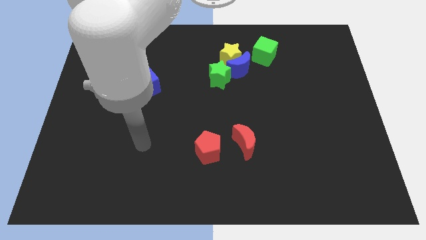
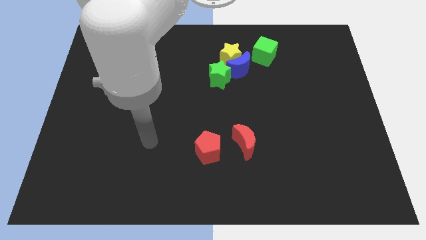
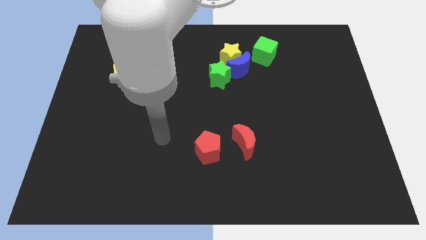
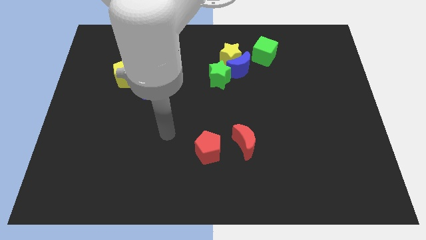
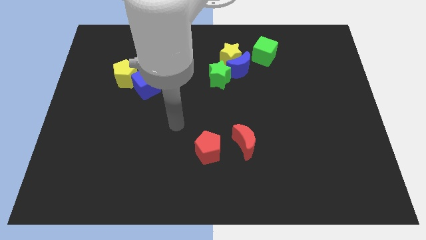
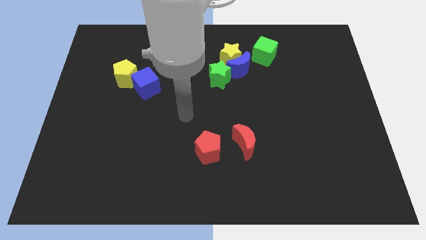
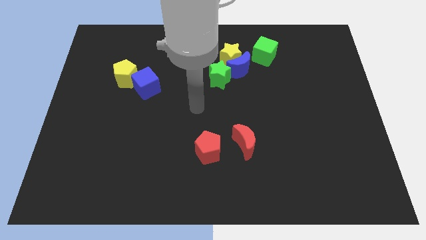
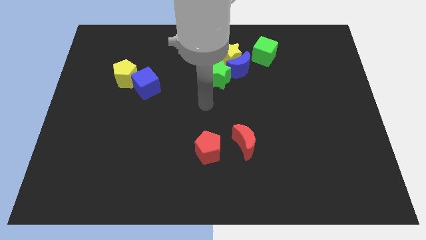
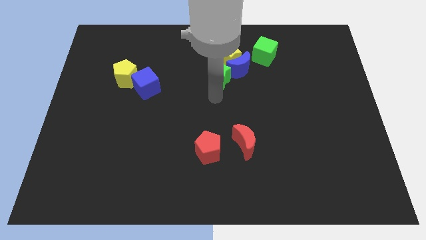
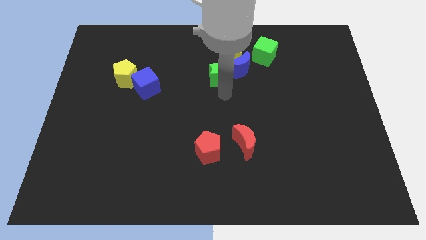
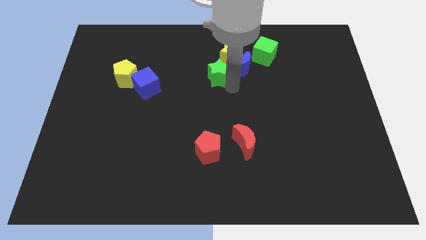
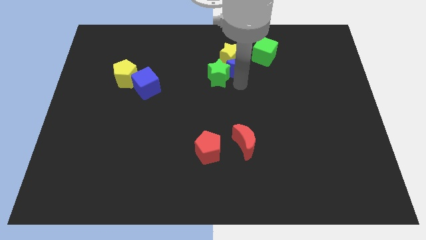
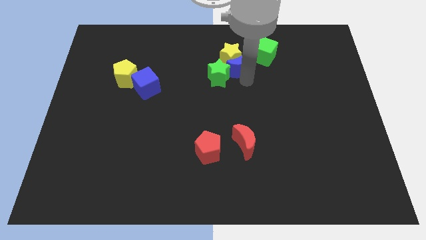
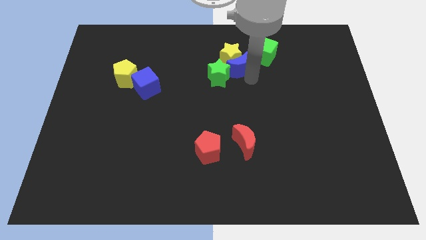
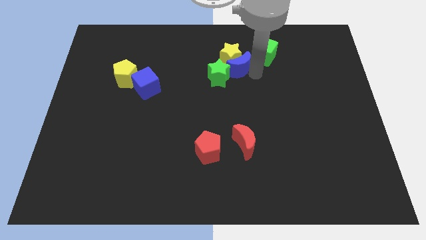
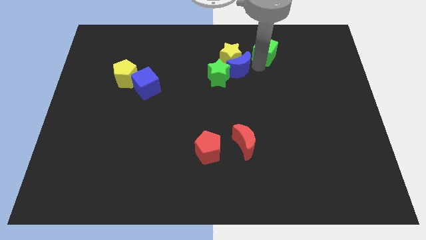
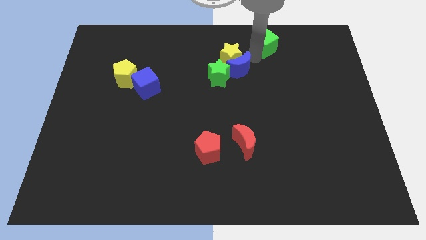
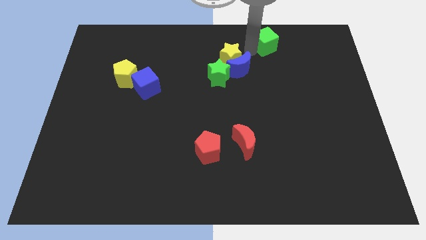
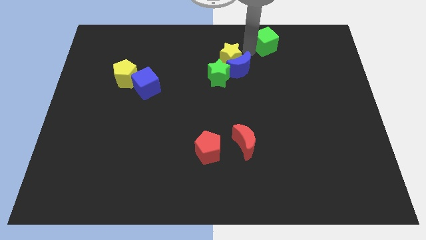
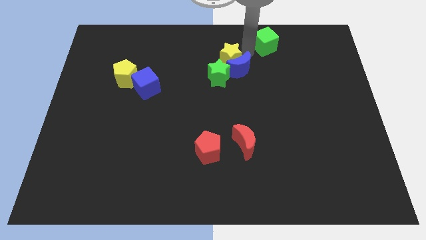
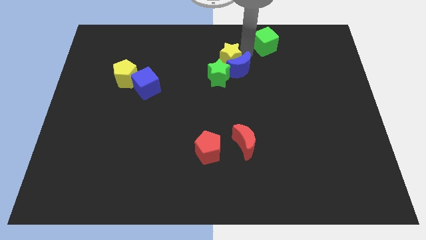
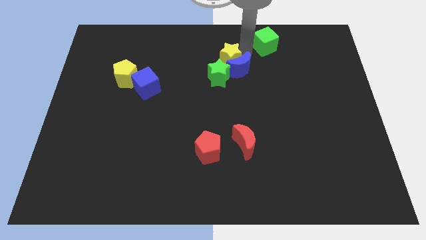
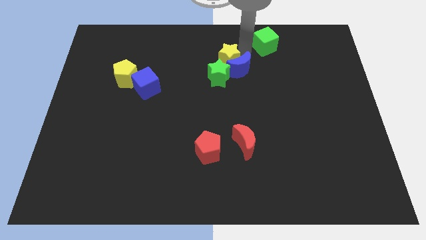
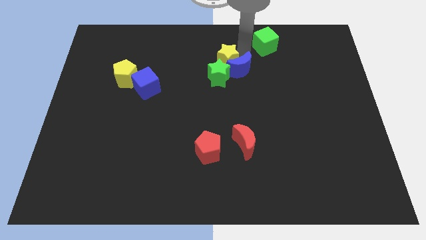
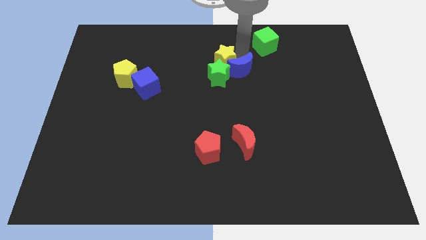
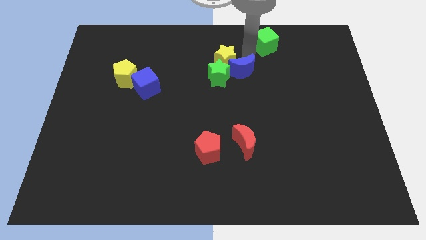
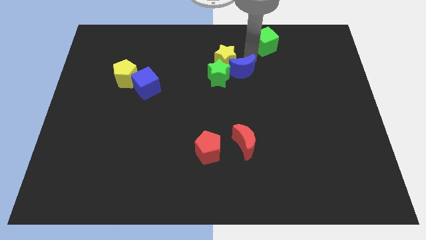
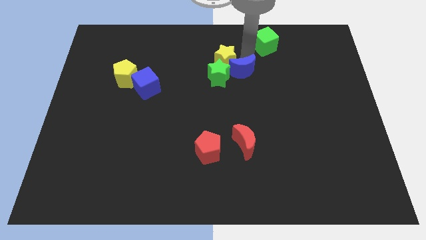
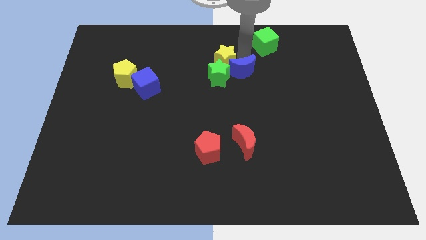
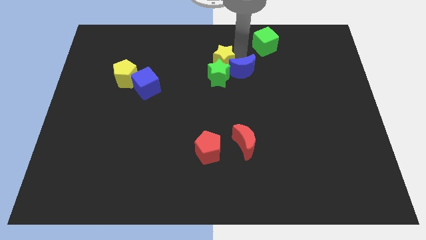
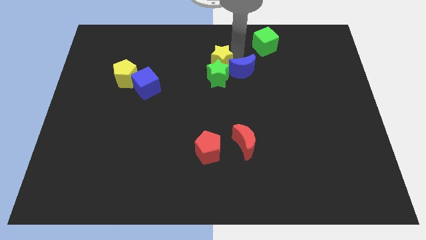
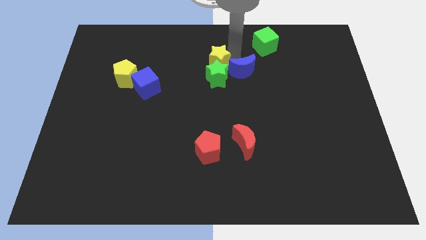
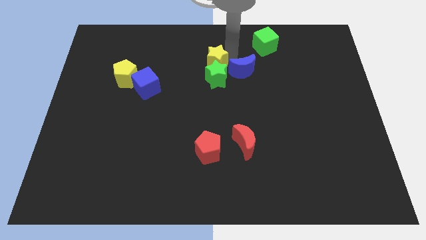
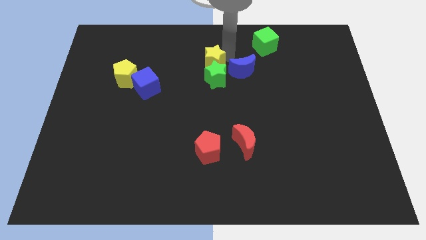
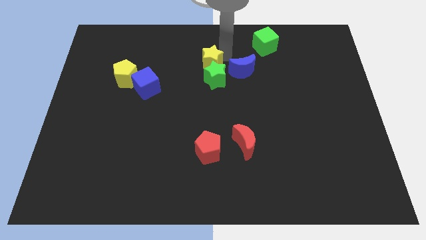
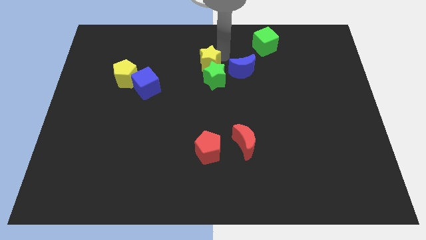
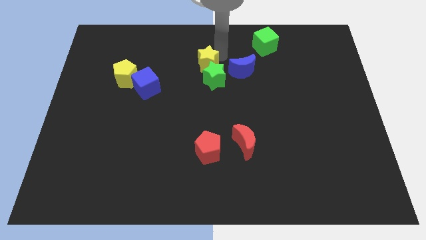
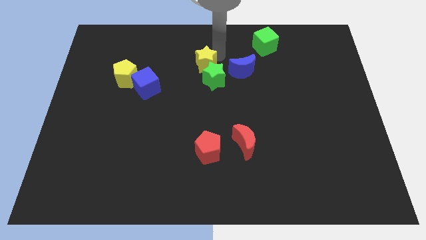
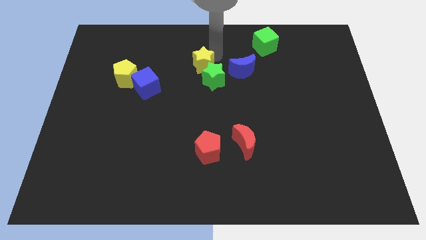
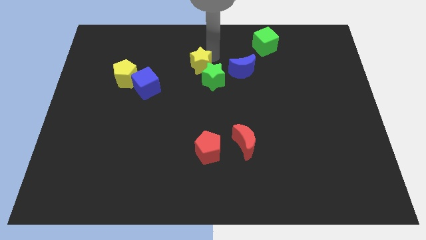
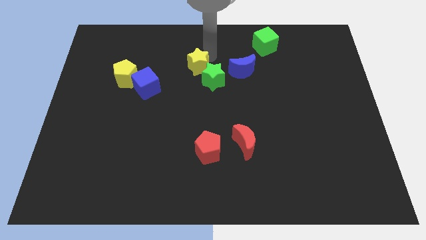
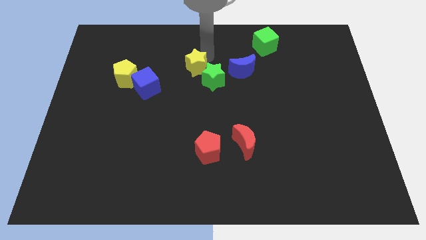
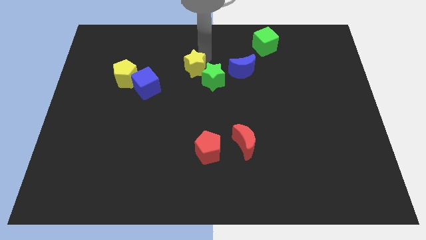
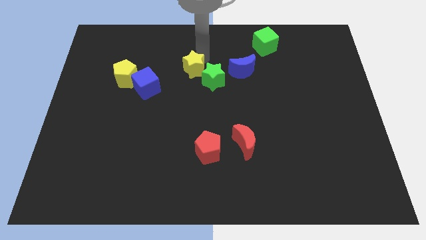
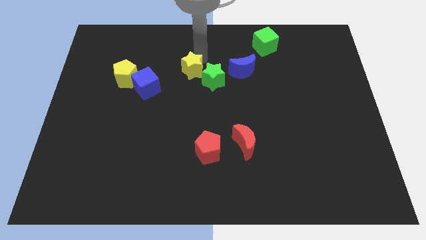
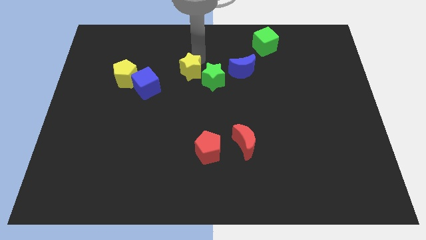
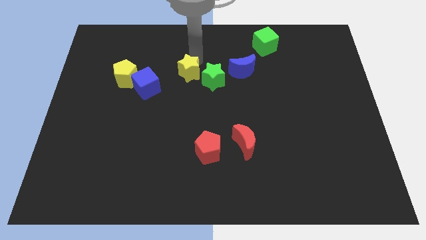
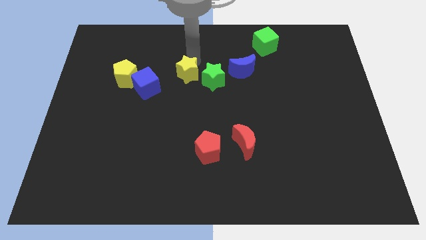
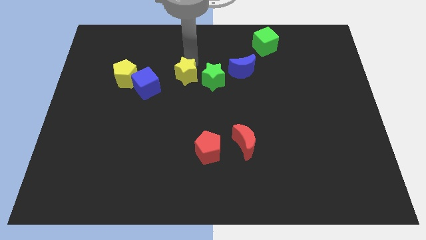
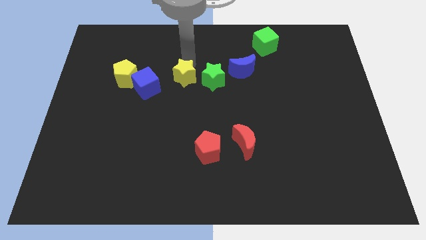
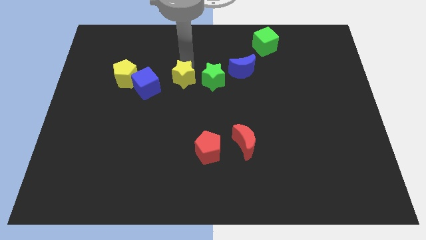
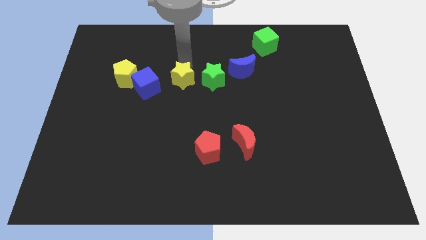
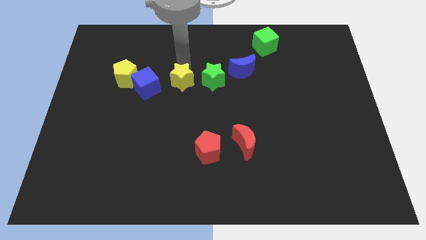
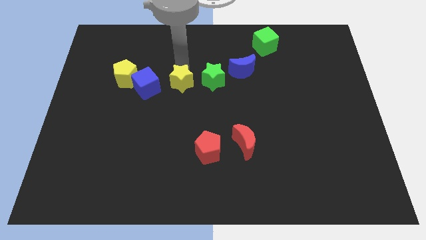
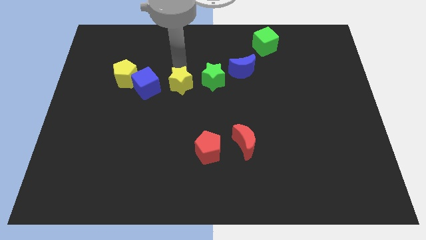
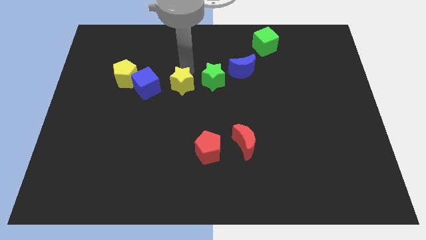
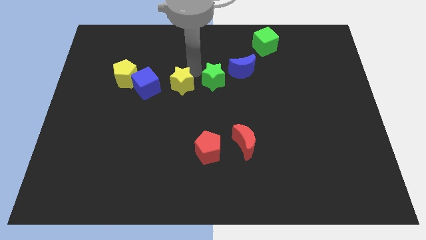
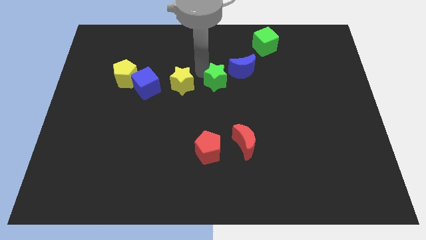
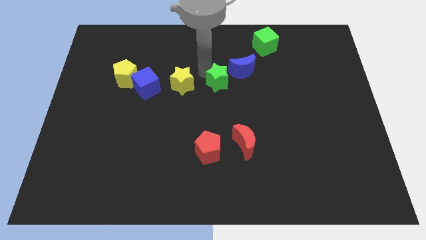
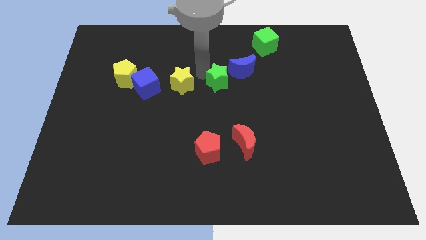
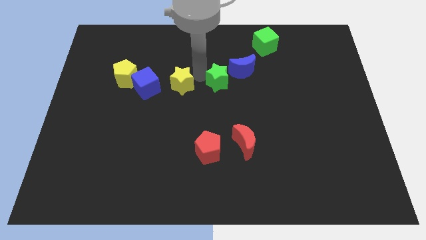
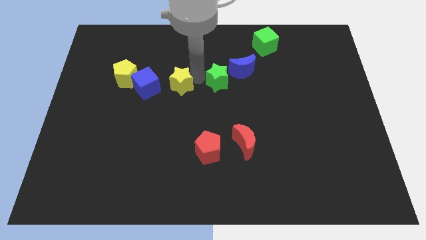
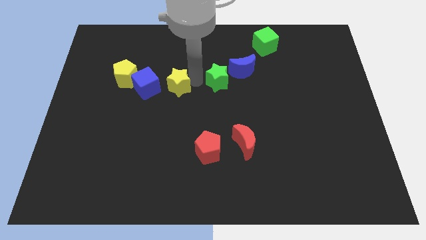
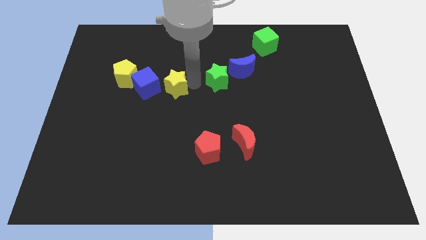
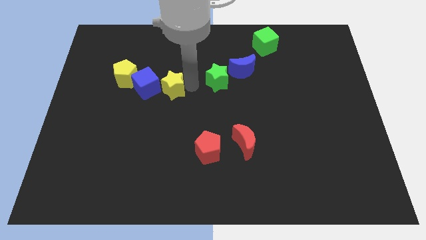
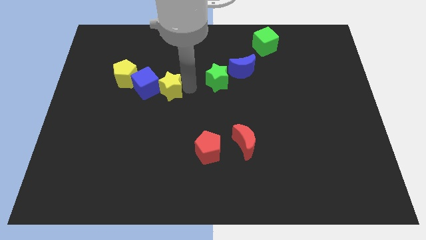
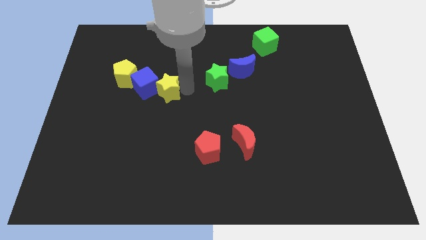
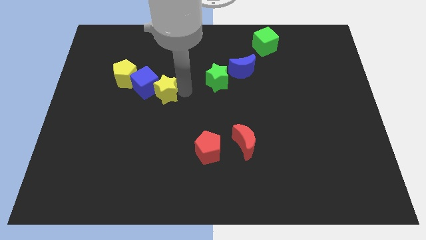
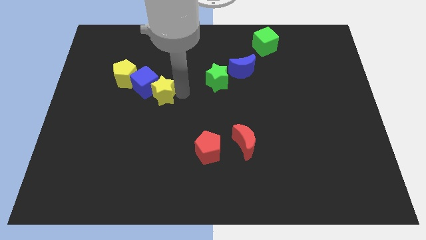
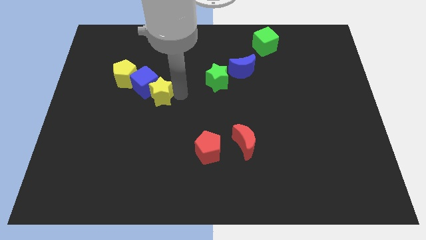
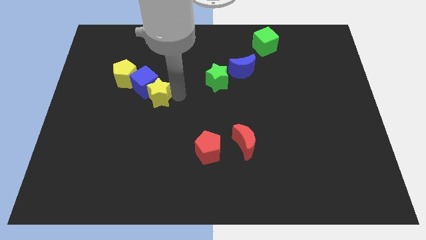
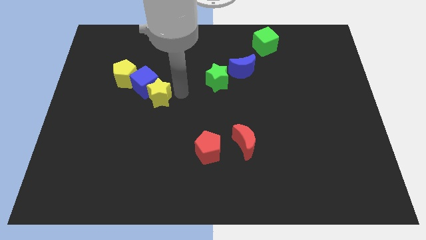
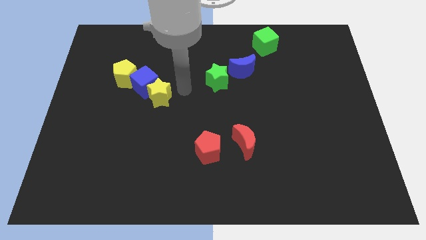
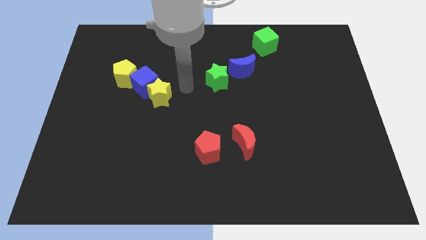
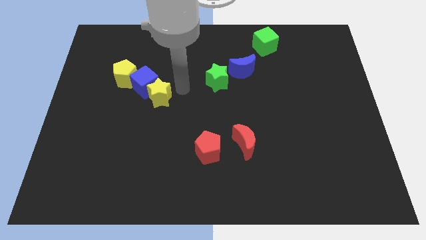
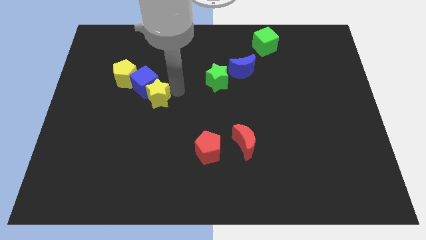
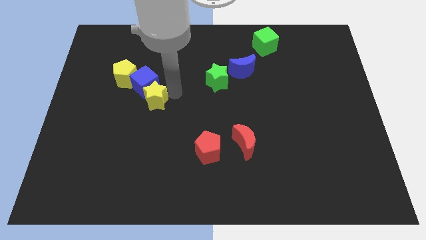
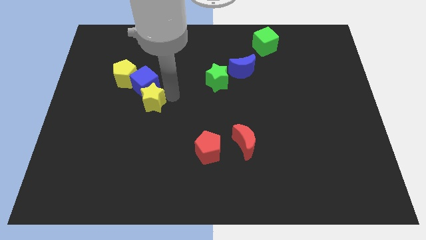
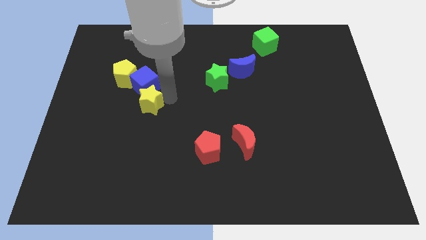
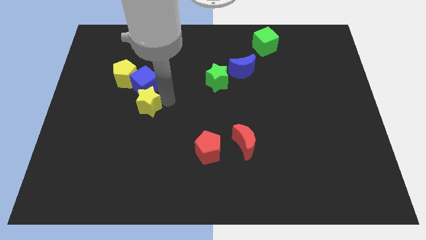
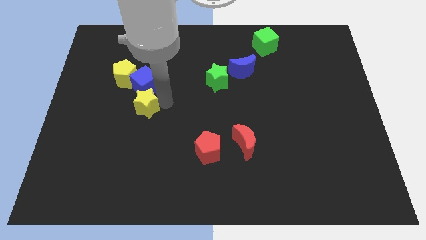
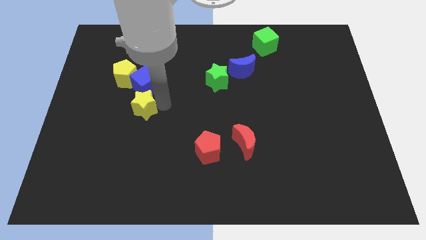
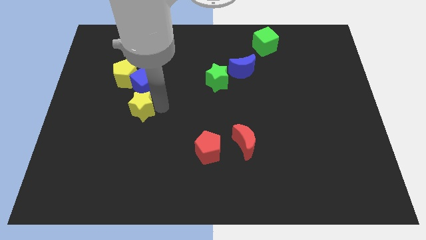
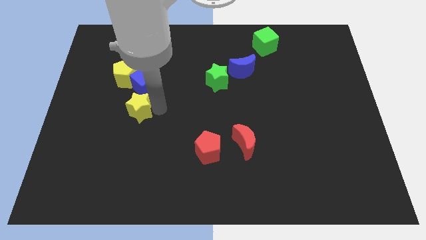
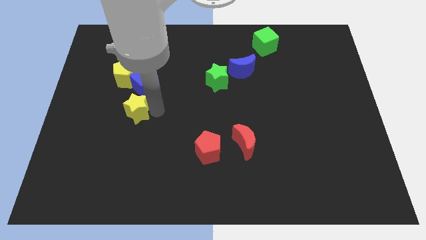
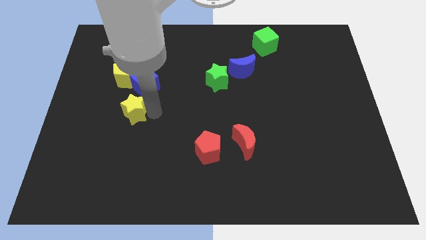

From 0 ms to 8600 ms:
put the yellow star to the bottom left side of the blue cube
